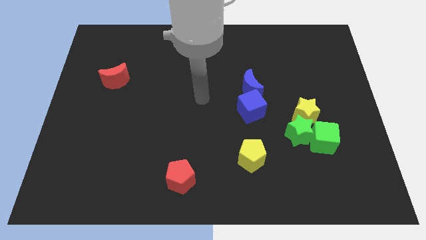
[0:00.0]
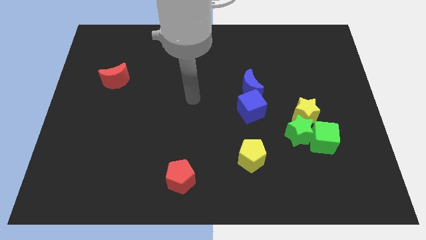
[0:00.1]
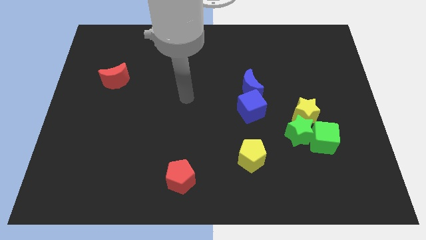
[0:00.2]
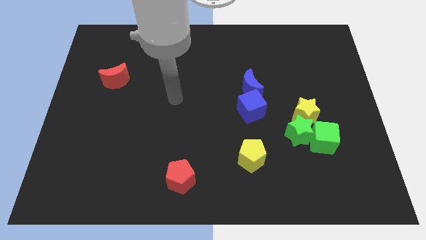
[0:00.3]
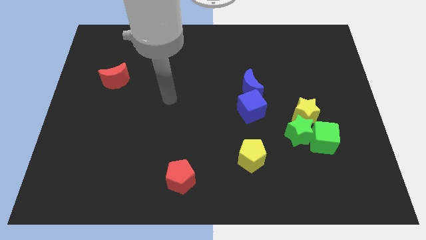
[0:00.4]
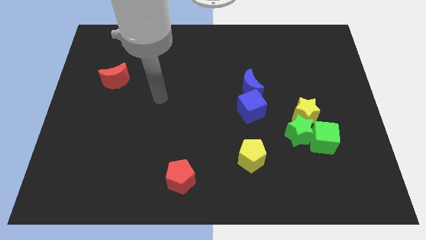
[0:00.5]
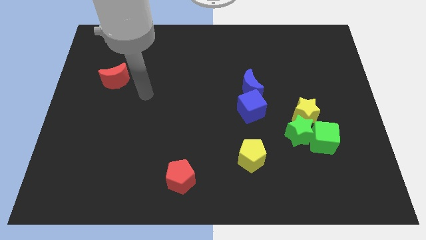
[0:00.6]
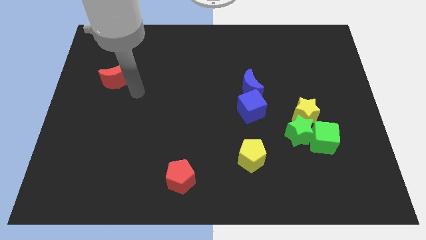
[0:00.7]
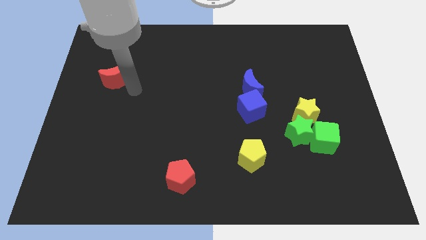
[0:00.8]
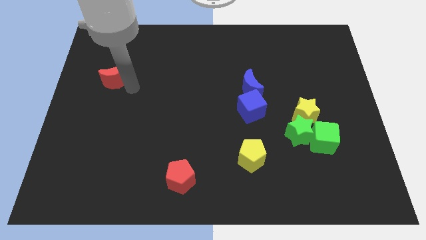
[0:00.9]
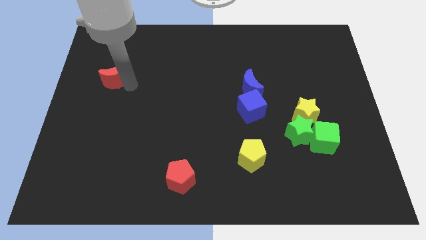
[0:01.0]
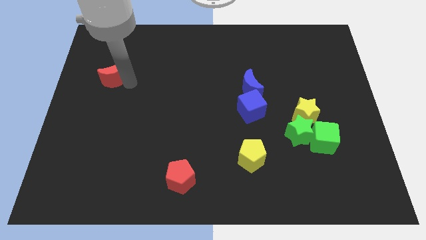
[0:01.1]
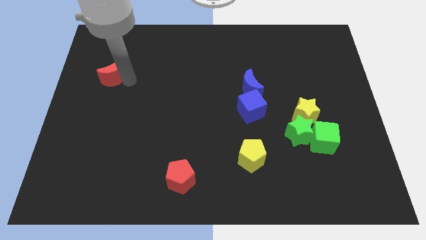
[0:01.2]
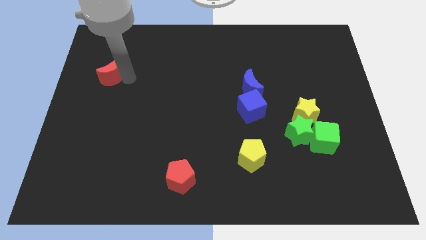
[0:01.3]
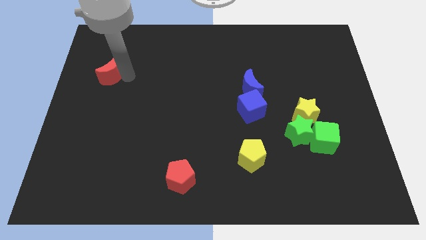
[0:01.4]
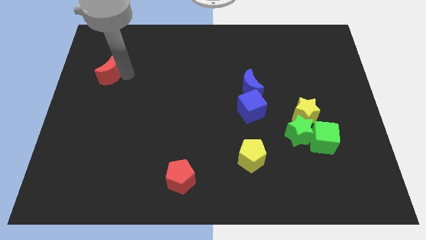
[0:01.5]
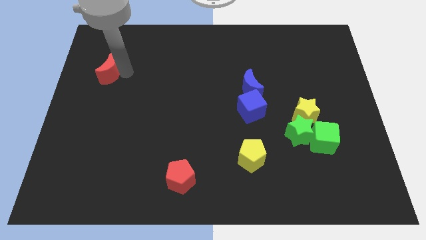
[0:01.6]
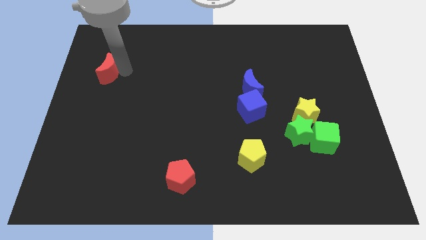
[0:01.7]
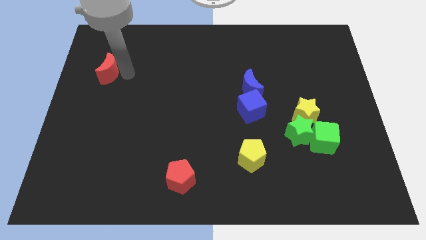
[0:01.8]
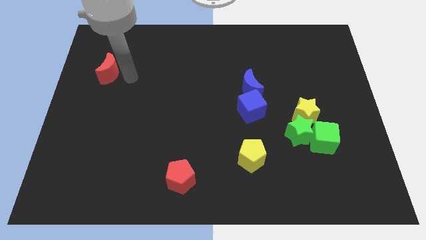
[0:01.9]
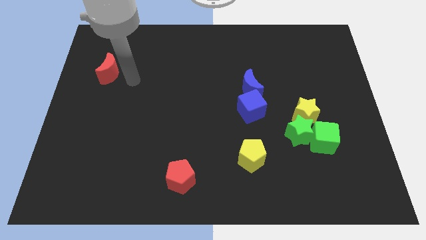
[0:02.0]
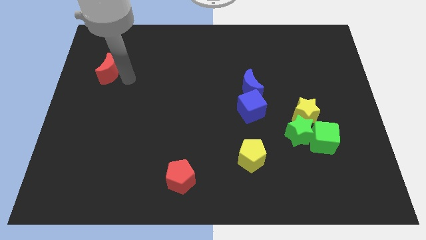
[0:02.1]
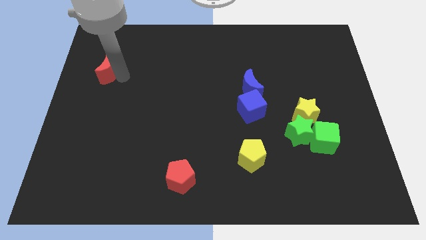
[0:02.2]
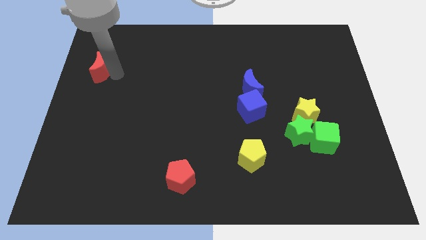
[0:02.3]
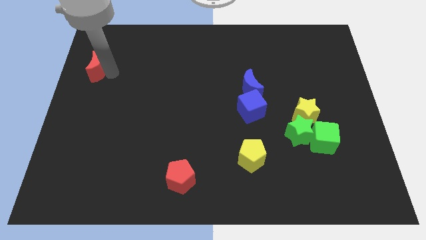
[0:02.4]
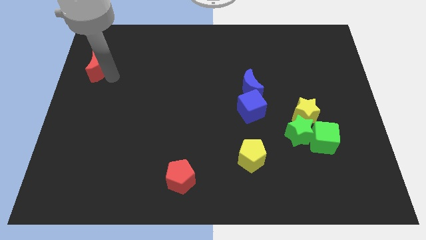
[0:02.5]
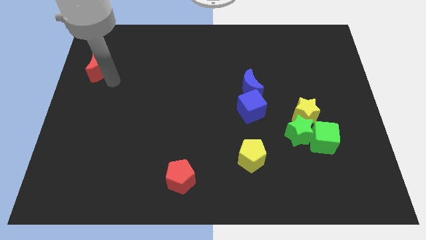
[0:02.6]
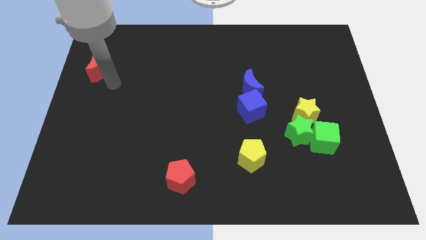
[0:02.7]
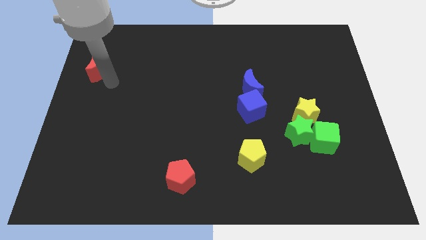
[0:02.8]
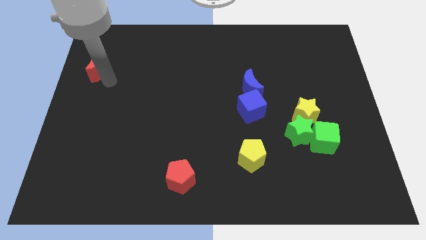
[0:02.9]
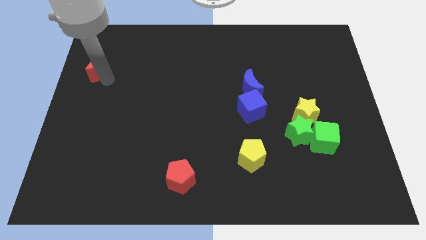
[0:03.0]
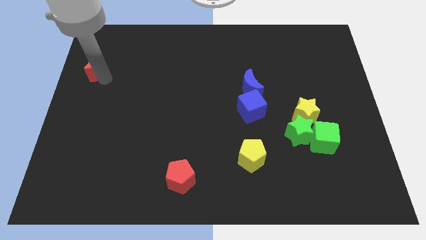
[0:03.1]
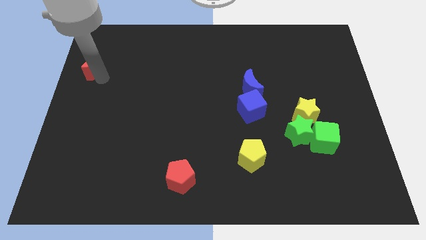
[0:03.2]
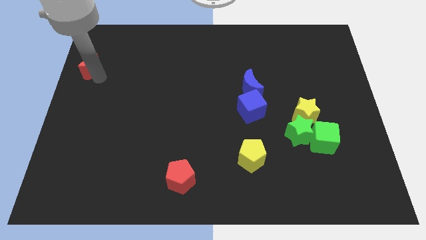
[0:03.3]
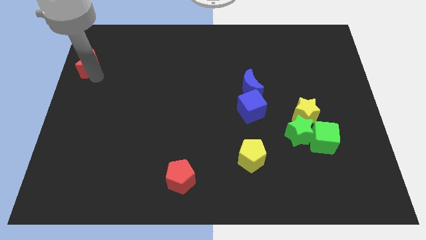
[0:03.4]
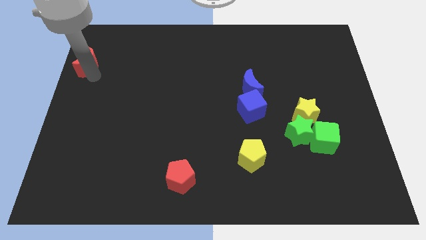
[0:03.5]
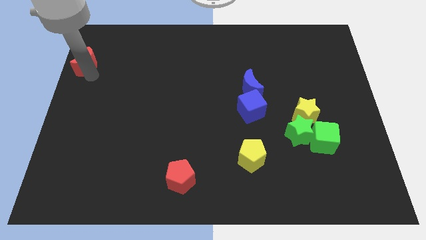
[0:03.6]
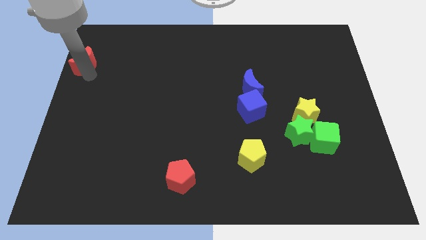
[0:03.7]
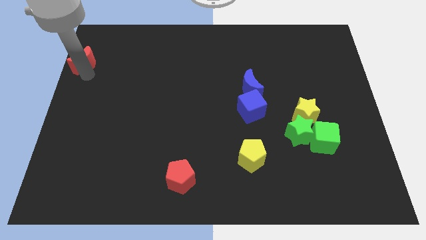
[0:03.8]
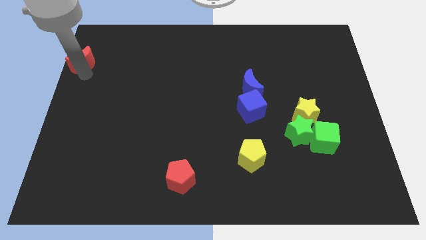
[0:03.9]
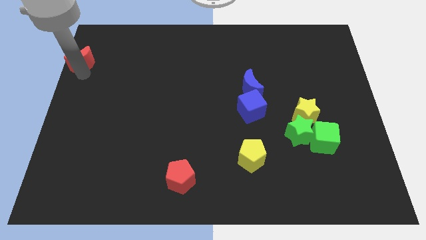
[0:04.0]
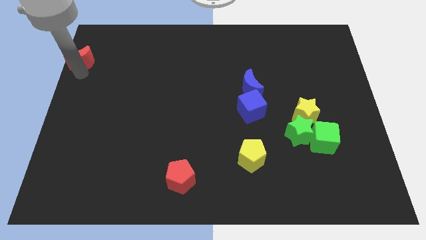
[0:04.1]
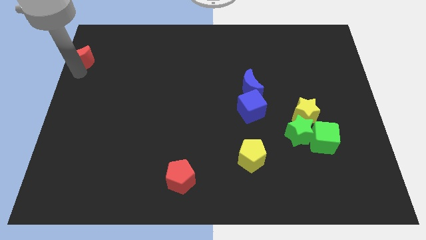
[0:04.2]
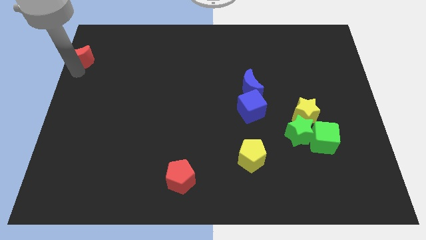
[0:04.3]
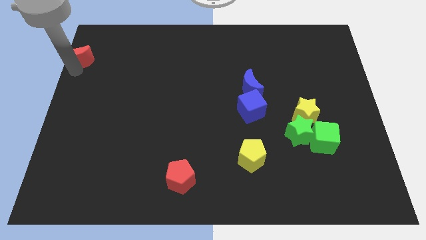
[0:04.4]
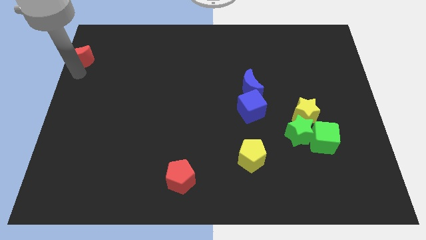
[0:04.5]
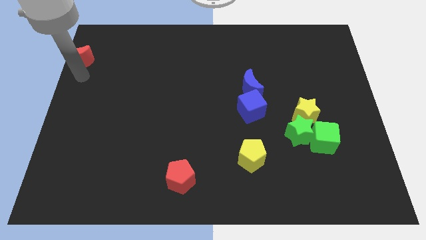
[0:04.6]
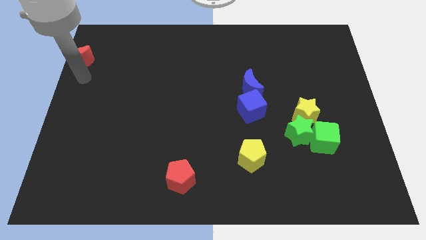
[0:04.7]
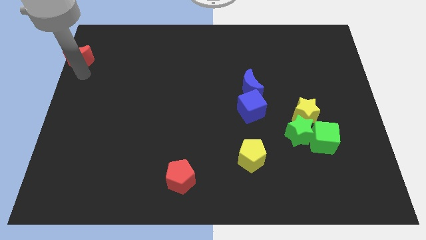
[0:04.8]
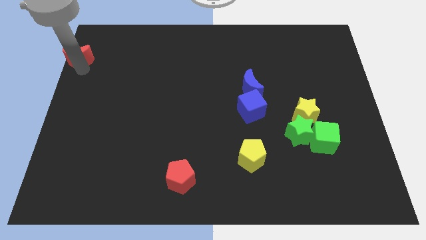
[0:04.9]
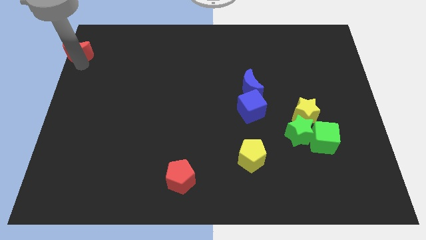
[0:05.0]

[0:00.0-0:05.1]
push the red moon to the top left

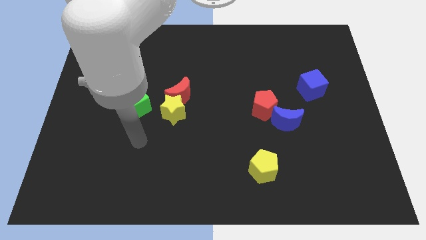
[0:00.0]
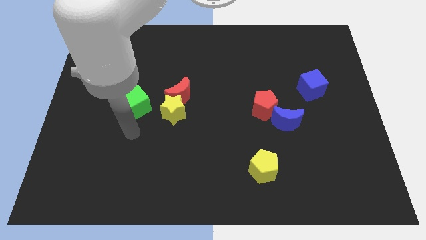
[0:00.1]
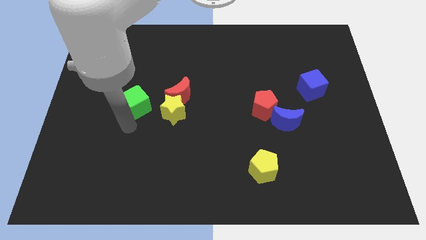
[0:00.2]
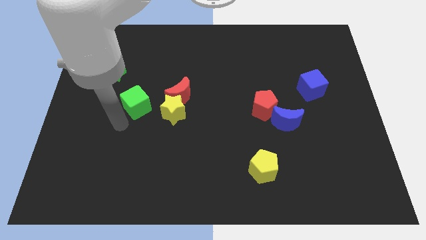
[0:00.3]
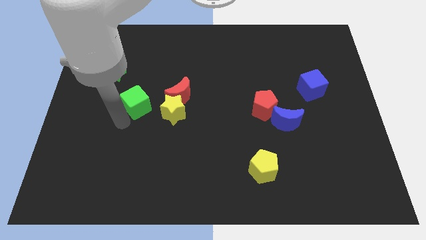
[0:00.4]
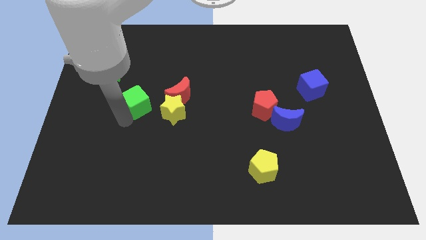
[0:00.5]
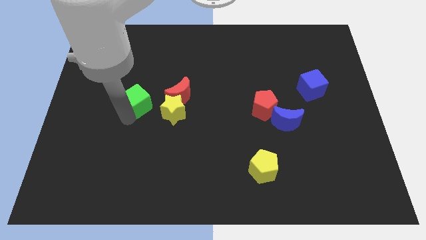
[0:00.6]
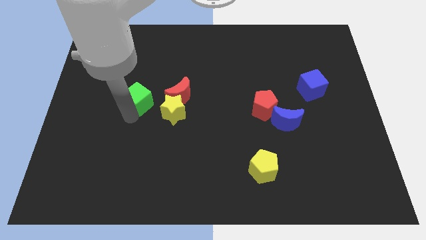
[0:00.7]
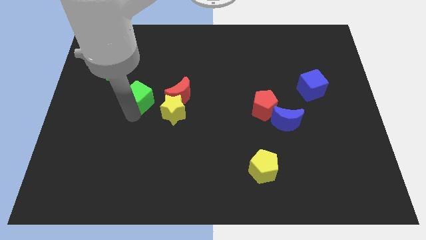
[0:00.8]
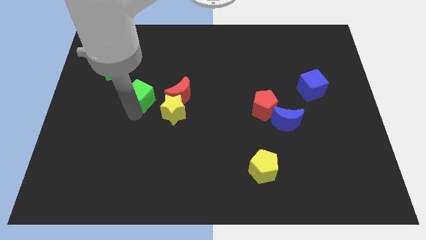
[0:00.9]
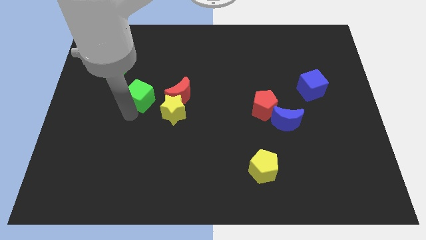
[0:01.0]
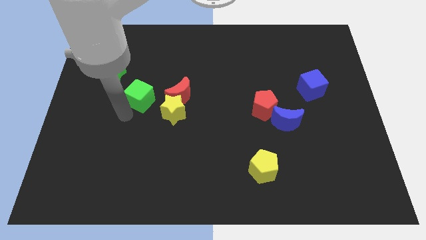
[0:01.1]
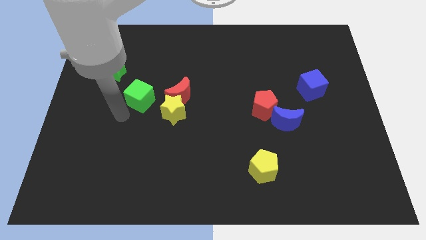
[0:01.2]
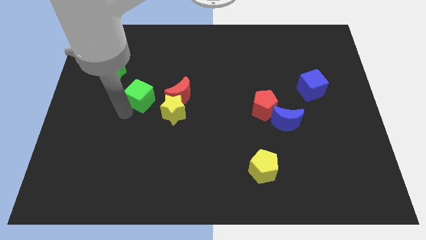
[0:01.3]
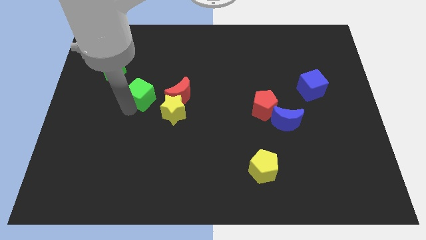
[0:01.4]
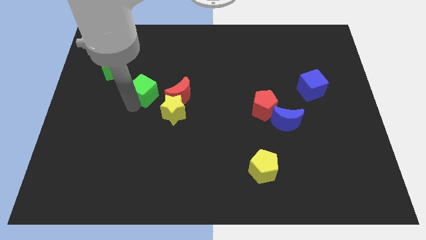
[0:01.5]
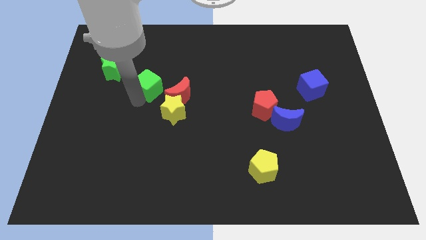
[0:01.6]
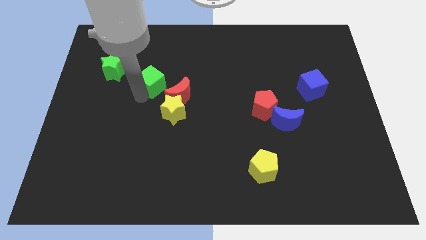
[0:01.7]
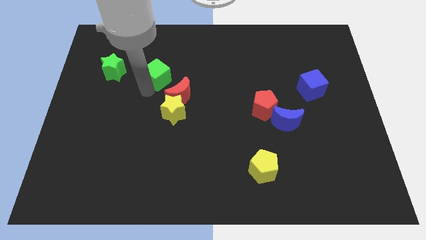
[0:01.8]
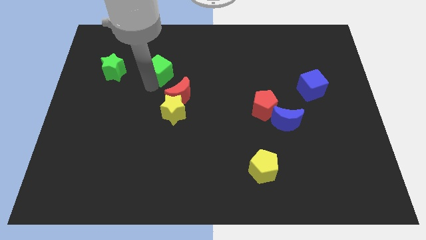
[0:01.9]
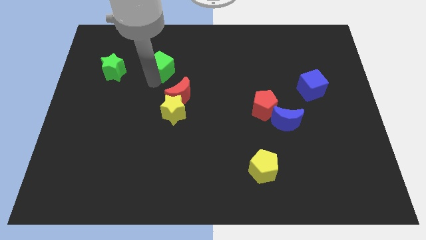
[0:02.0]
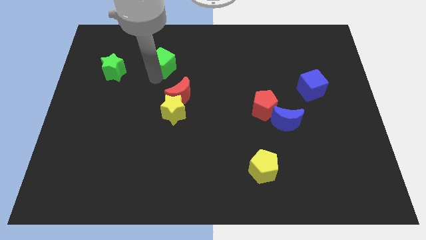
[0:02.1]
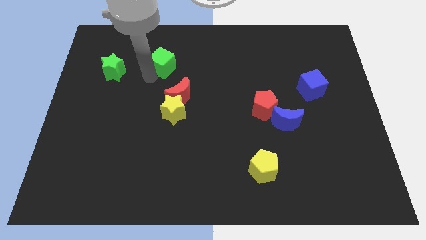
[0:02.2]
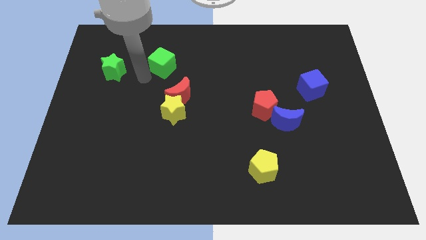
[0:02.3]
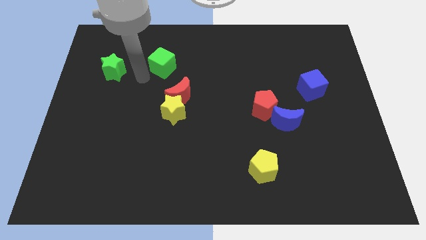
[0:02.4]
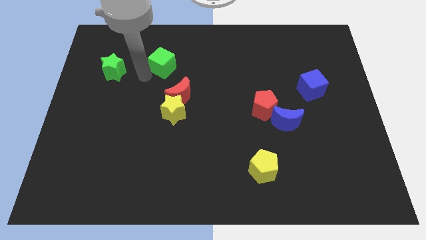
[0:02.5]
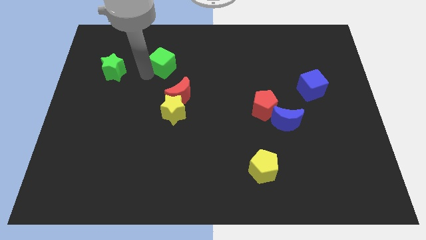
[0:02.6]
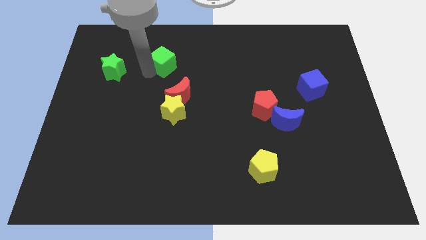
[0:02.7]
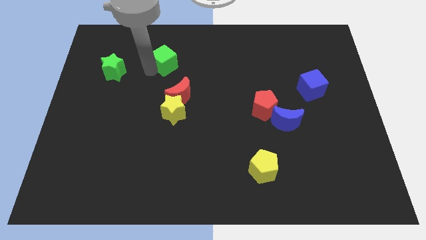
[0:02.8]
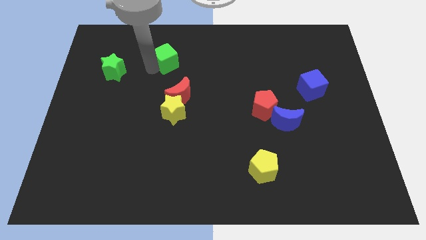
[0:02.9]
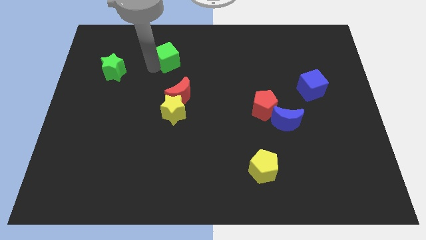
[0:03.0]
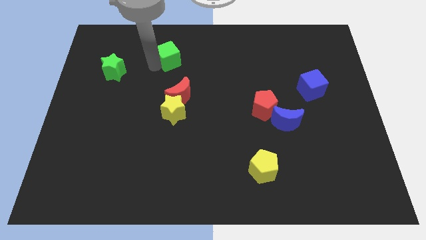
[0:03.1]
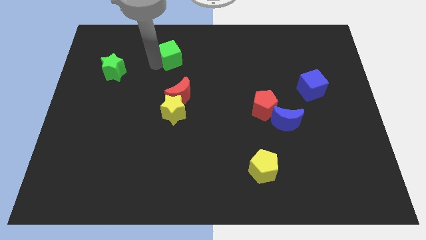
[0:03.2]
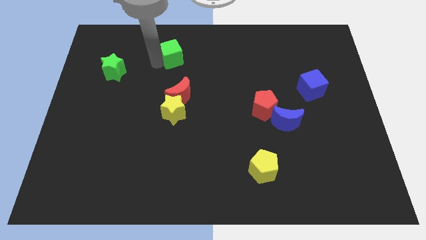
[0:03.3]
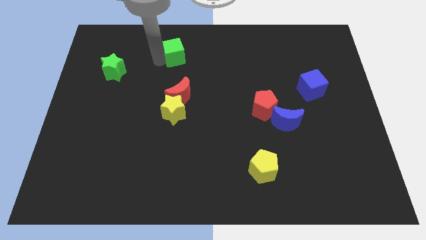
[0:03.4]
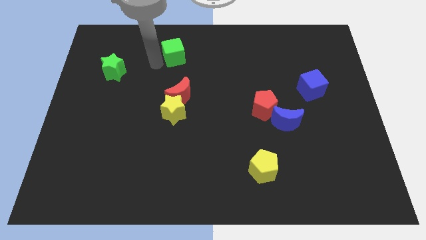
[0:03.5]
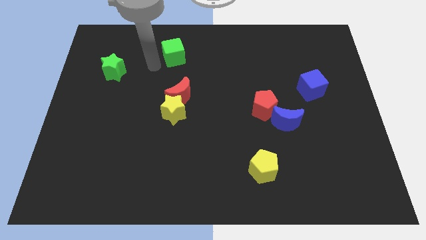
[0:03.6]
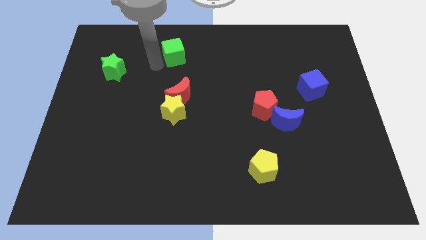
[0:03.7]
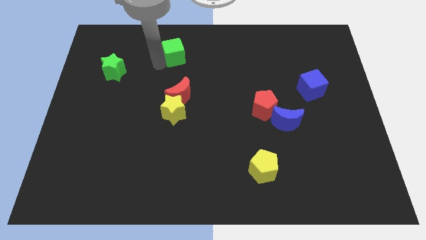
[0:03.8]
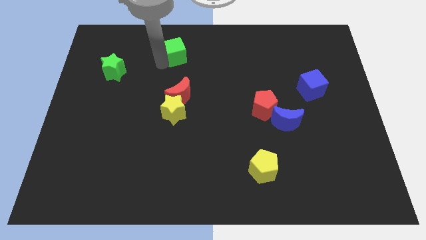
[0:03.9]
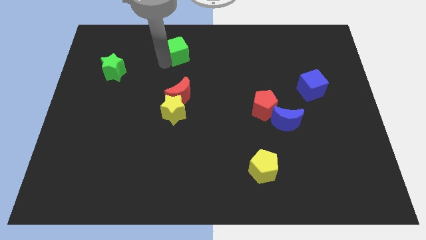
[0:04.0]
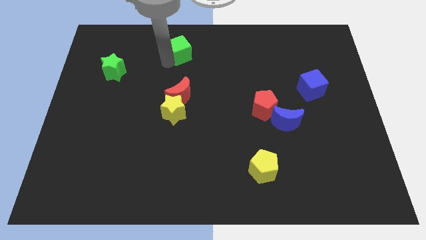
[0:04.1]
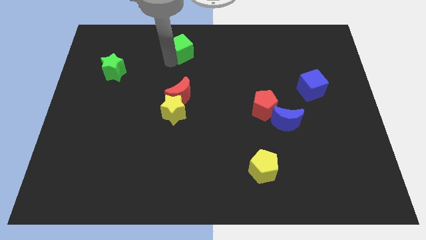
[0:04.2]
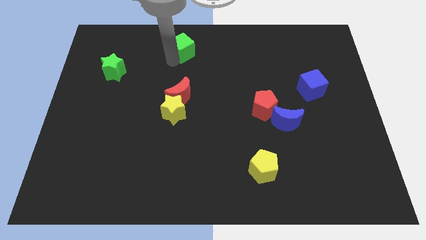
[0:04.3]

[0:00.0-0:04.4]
move the green cube to the top side
